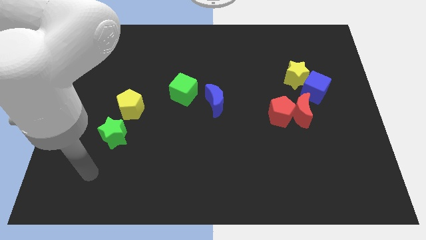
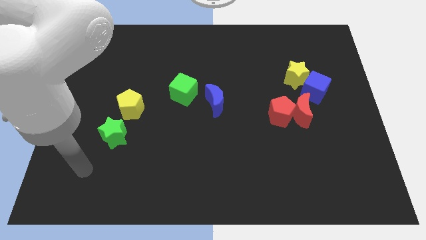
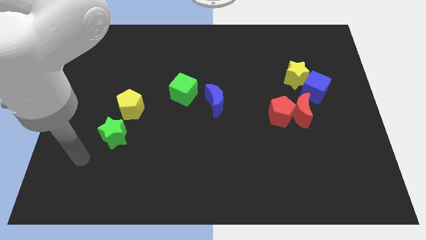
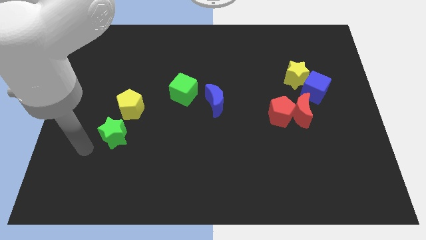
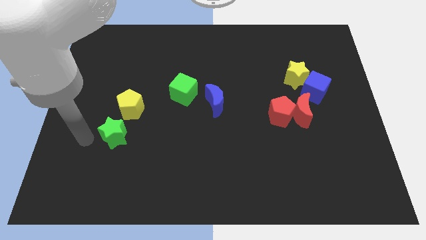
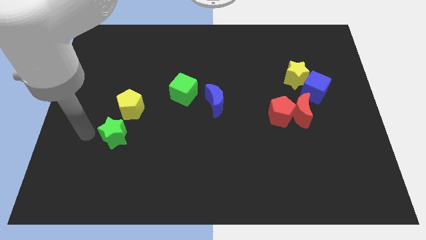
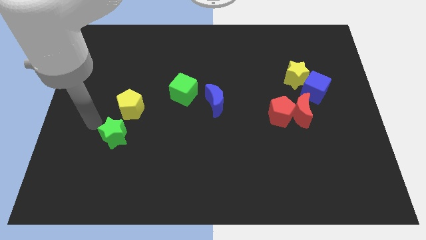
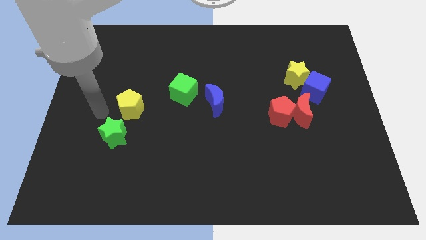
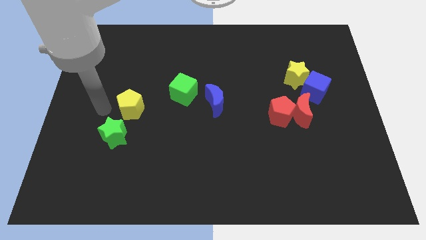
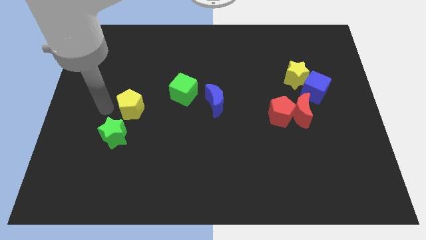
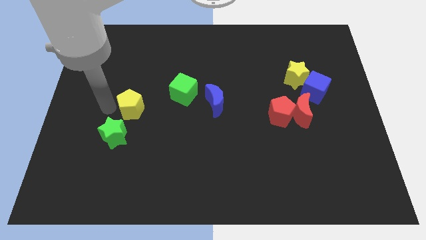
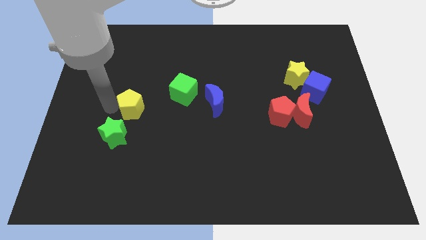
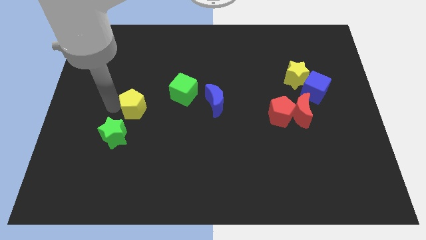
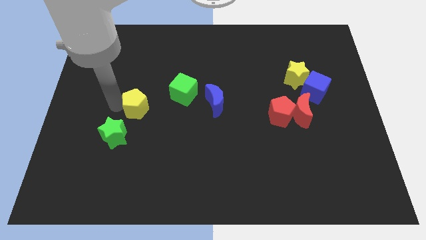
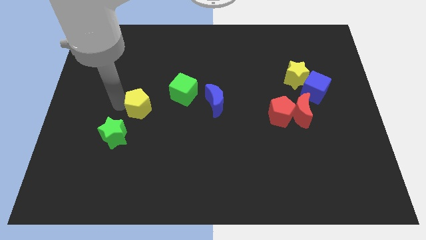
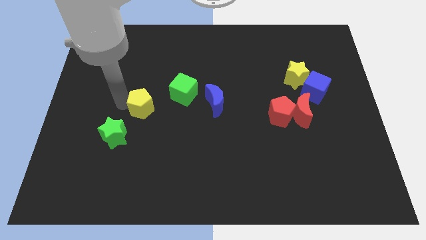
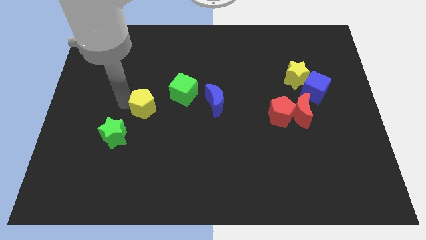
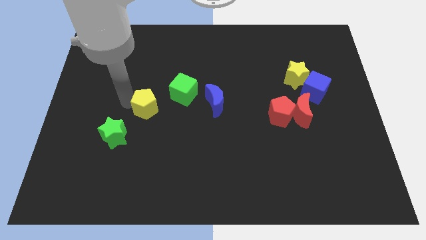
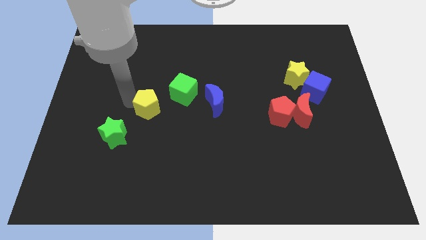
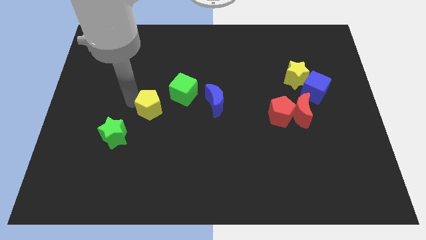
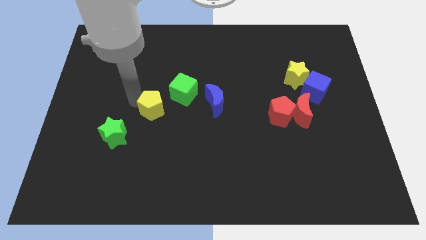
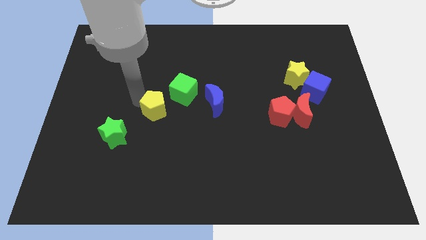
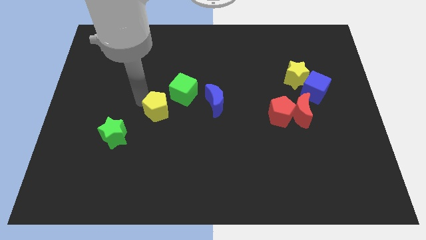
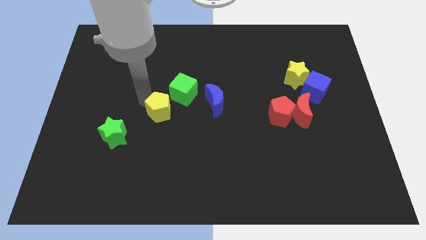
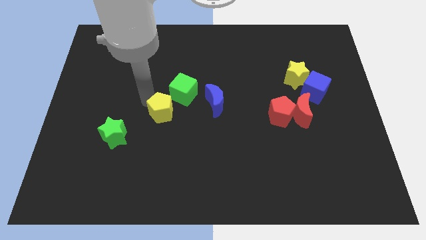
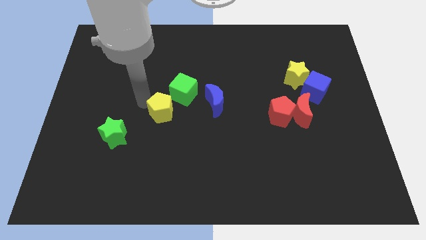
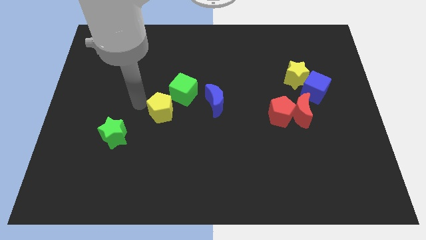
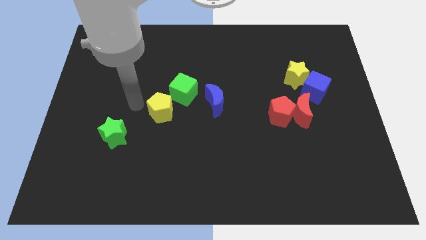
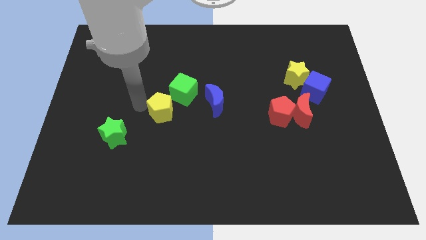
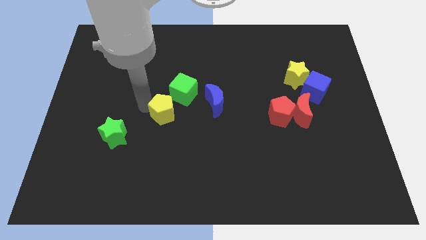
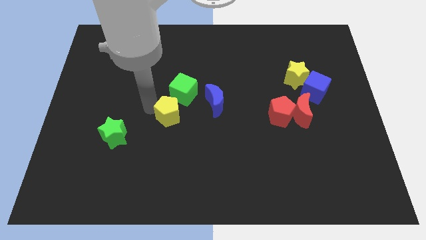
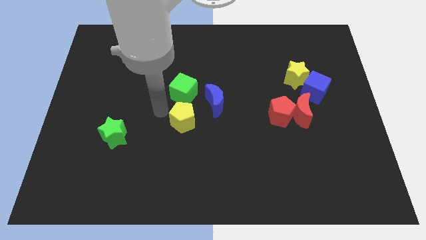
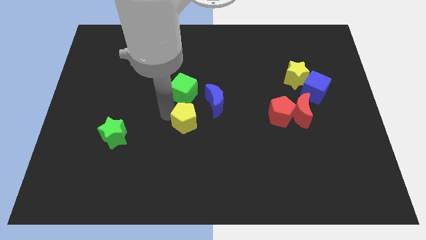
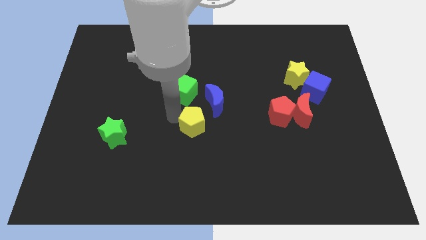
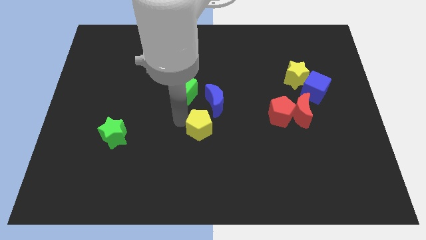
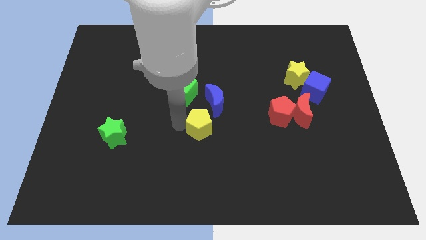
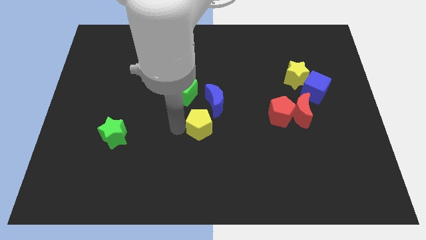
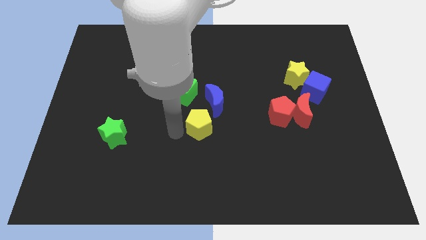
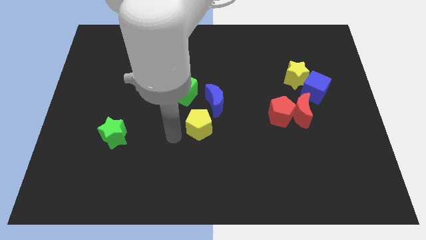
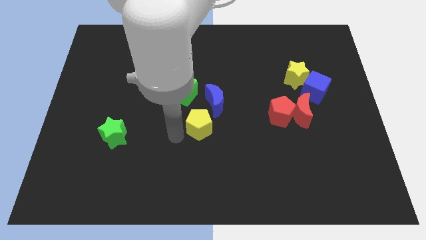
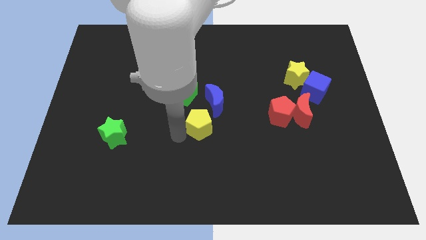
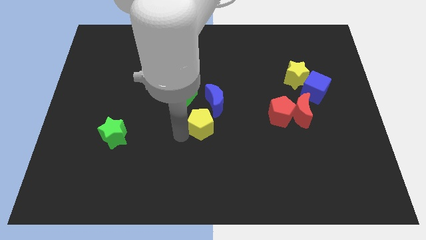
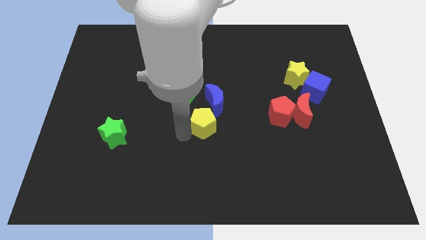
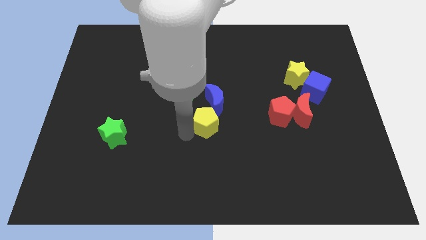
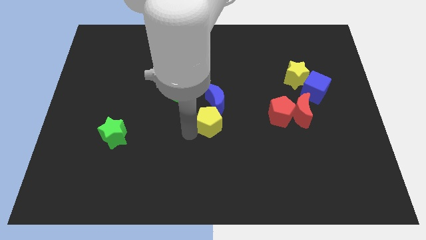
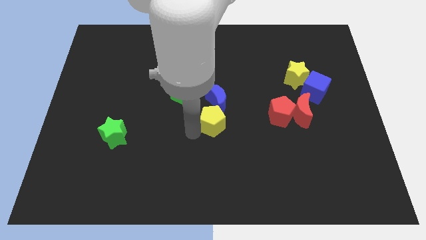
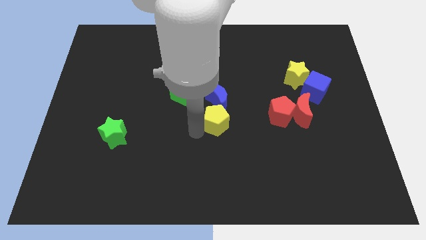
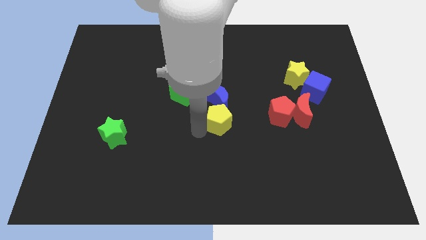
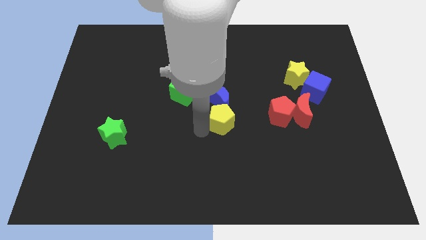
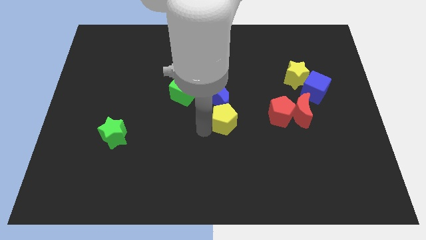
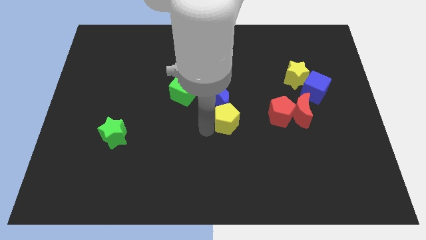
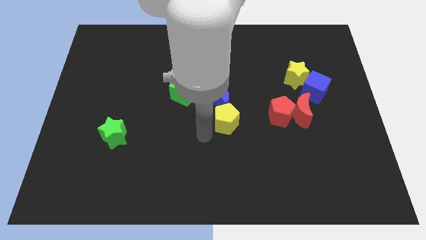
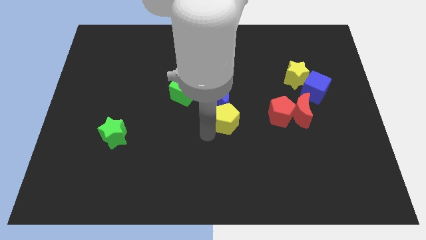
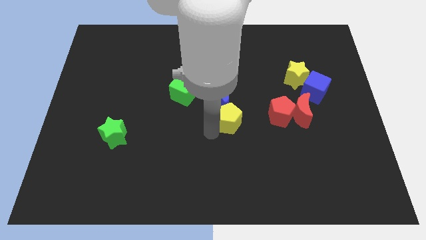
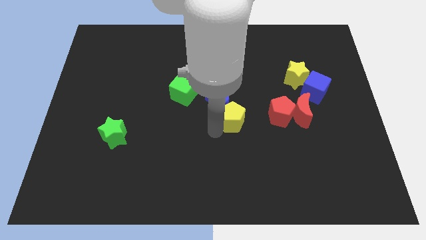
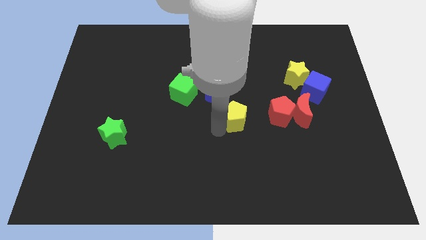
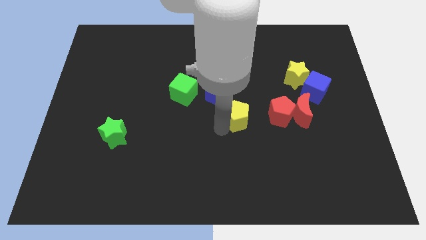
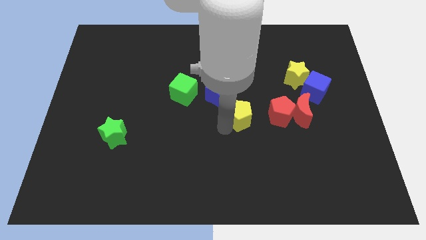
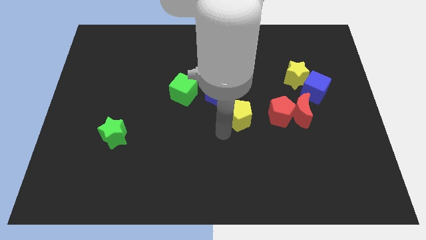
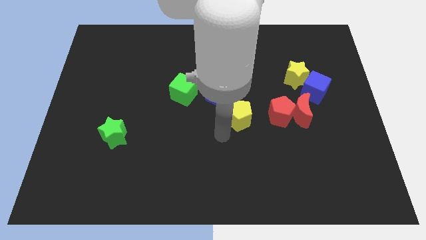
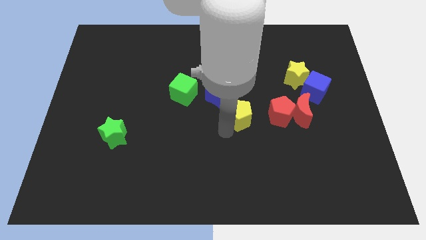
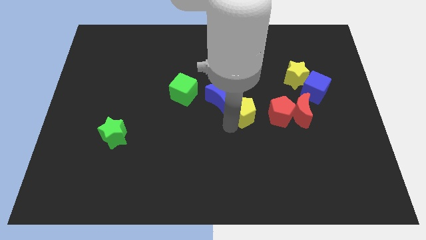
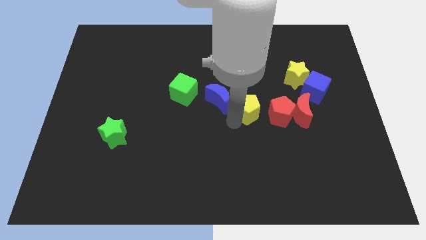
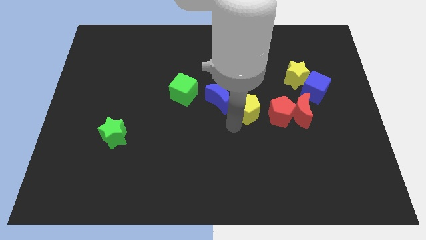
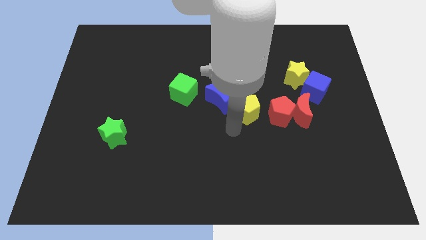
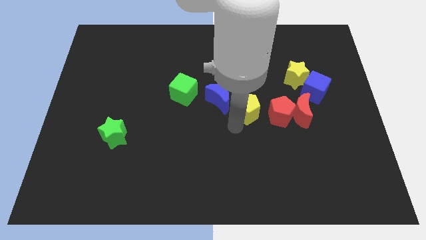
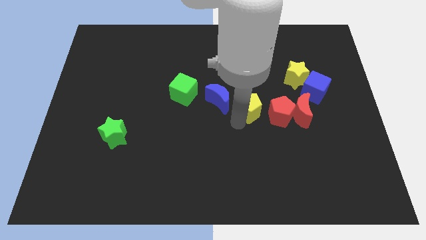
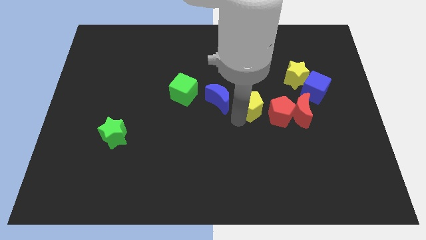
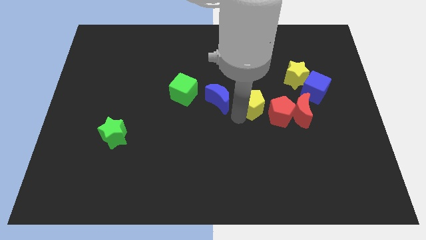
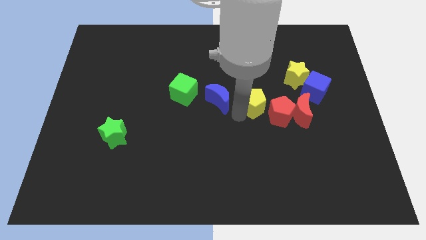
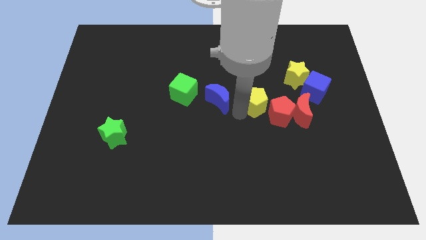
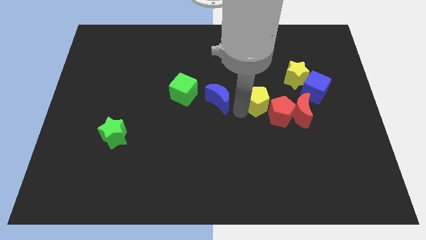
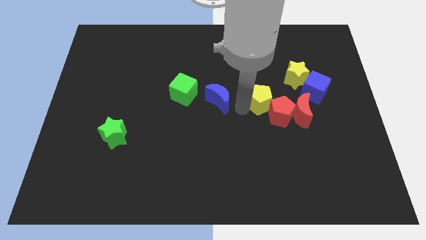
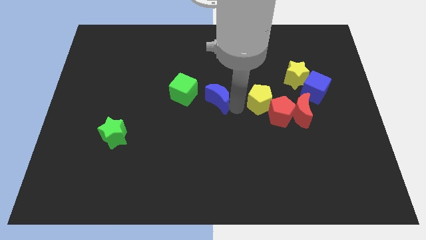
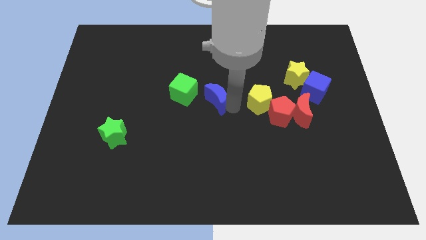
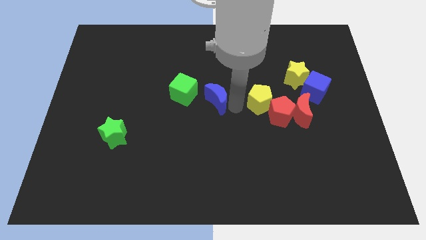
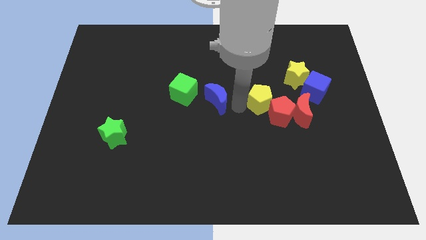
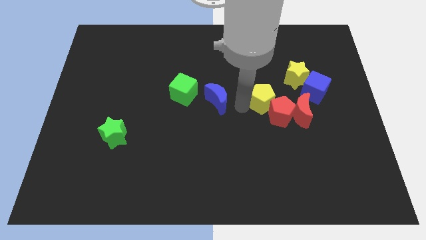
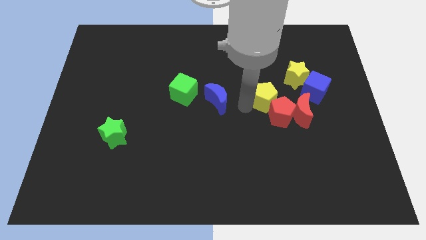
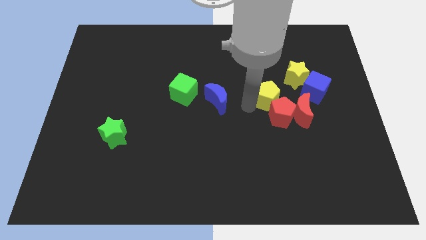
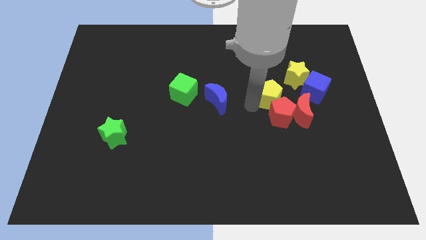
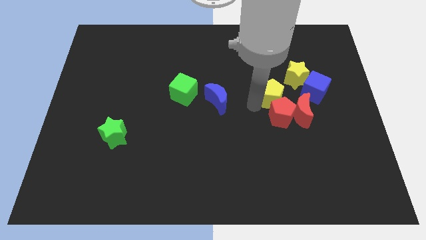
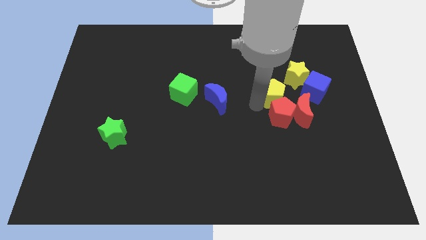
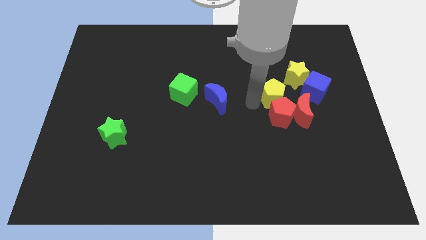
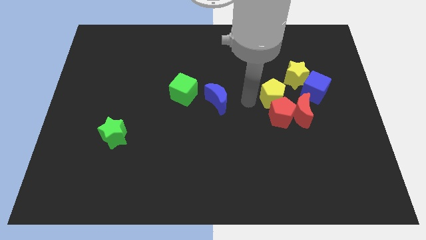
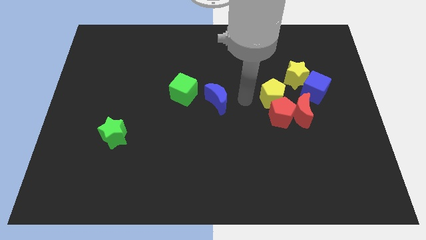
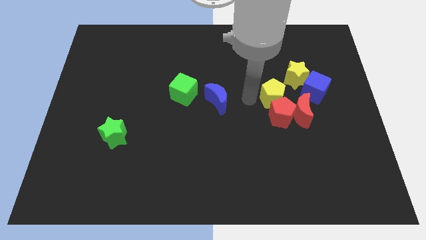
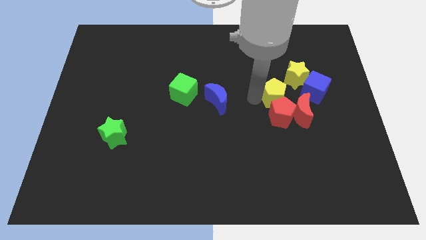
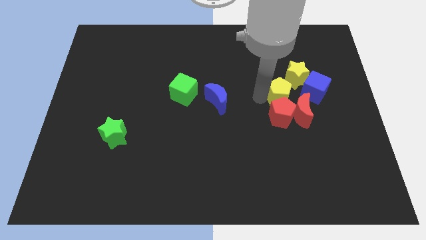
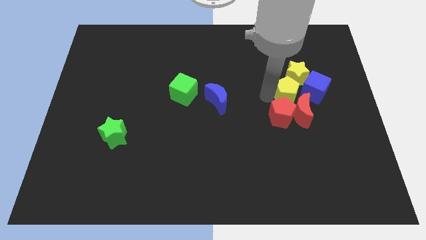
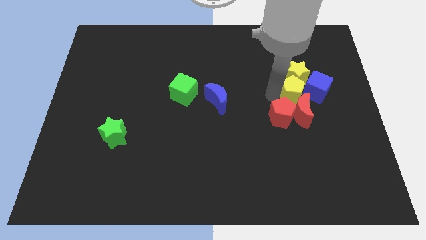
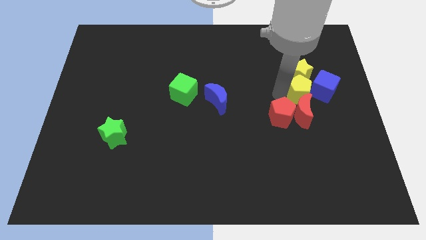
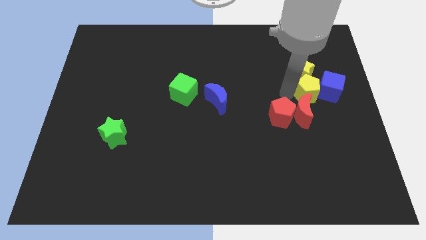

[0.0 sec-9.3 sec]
move the yellow pentagon to the blue cube
